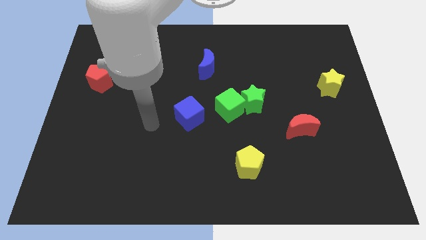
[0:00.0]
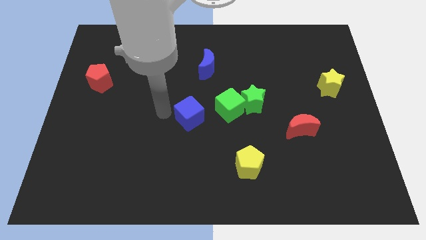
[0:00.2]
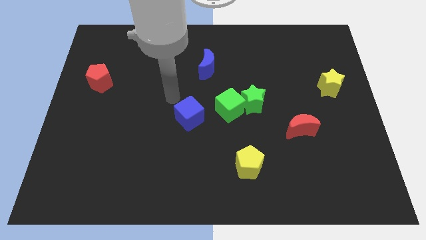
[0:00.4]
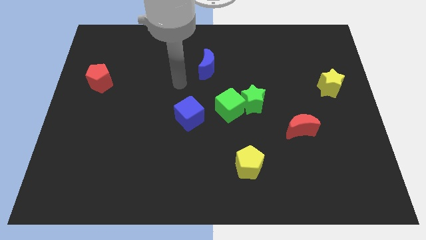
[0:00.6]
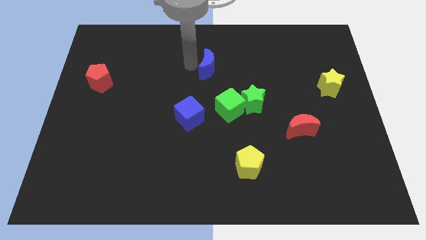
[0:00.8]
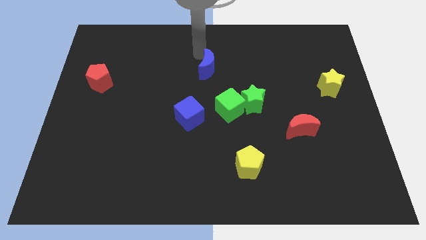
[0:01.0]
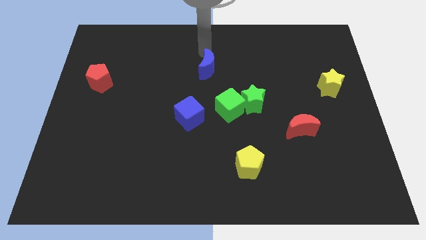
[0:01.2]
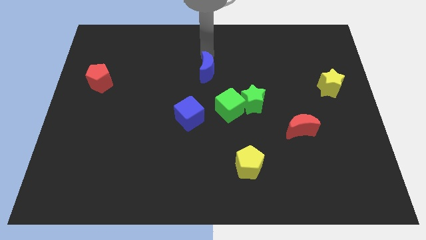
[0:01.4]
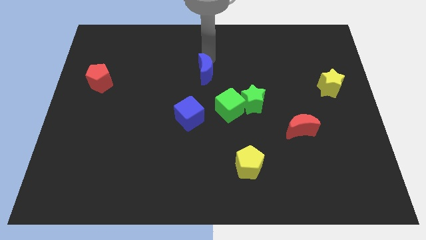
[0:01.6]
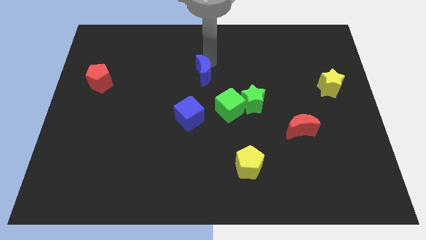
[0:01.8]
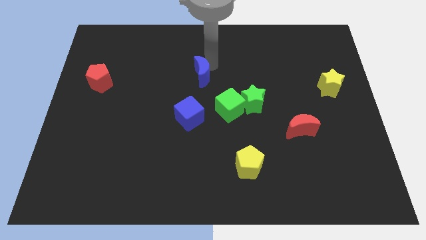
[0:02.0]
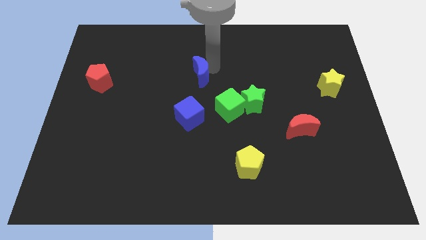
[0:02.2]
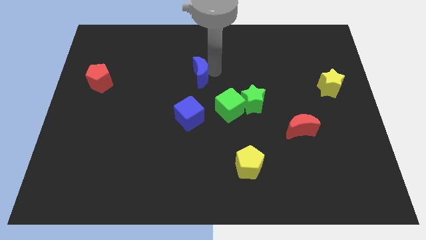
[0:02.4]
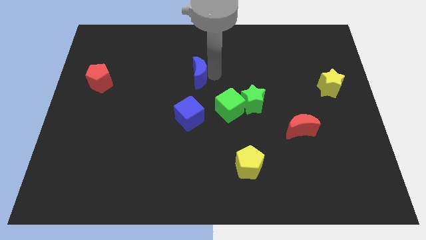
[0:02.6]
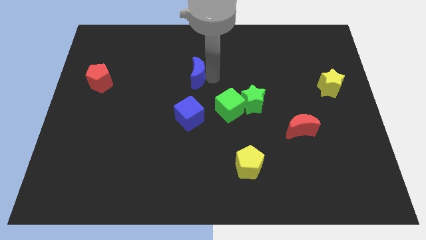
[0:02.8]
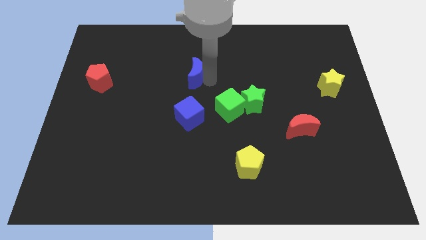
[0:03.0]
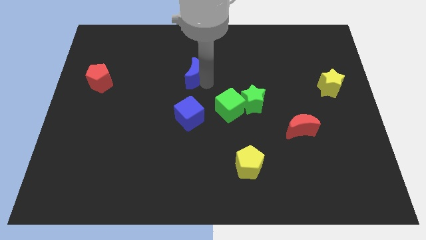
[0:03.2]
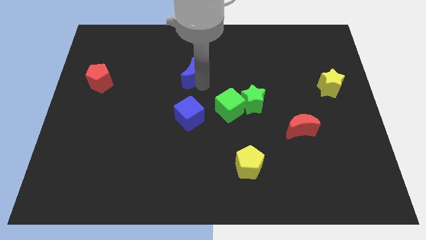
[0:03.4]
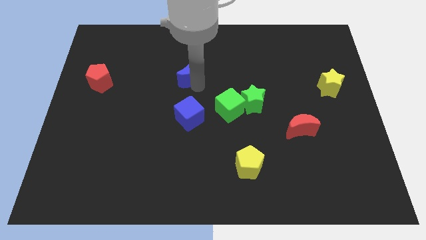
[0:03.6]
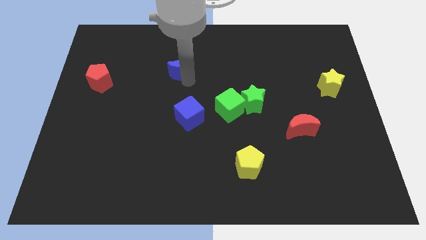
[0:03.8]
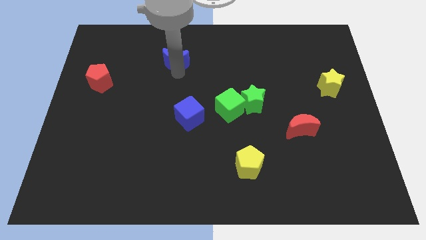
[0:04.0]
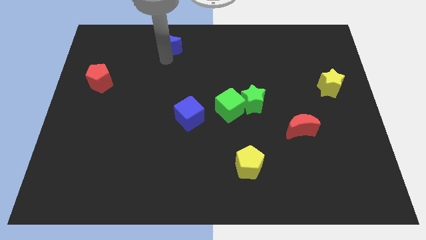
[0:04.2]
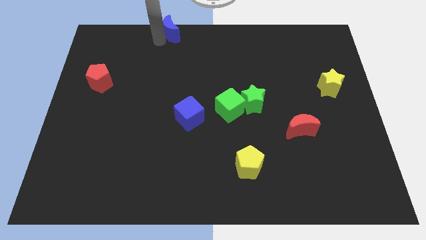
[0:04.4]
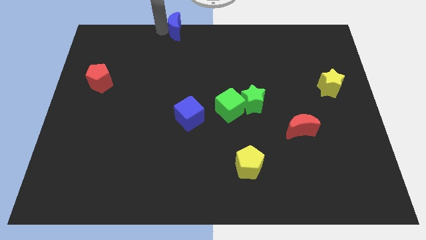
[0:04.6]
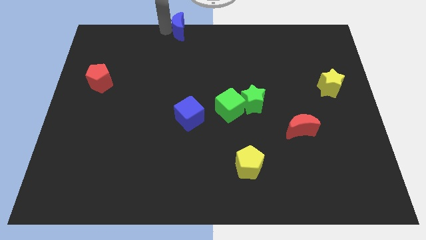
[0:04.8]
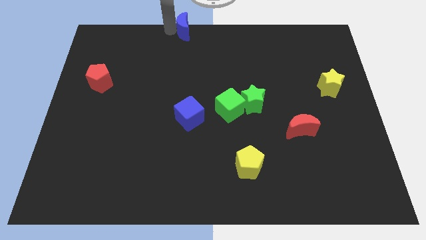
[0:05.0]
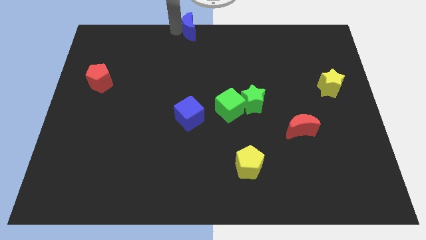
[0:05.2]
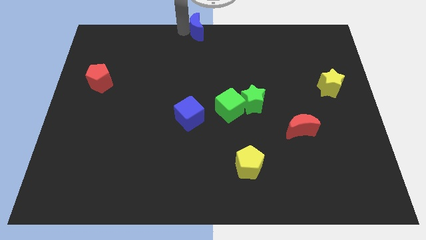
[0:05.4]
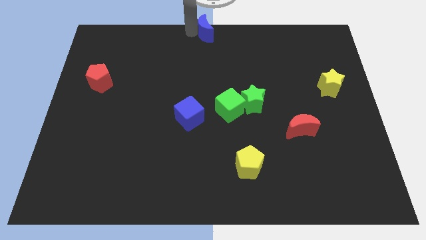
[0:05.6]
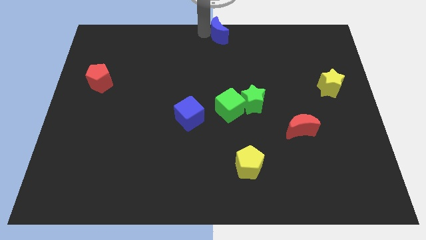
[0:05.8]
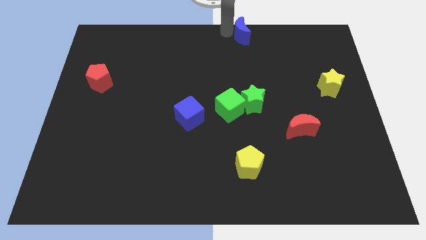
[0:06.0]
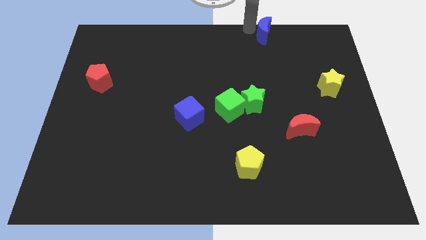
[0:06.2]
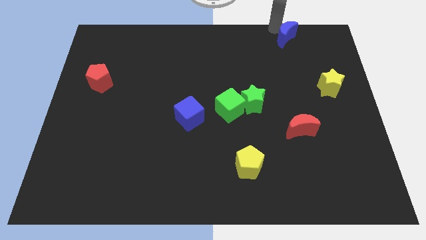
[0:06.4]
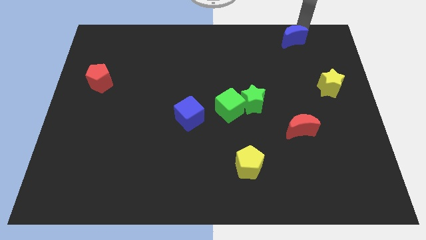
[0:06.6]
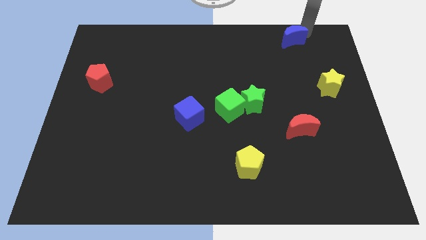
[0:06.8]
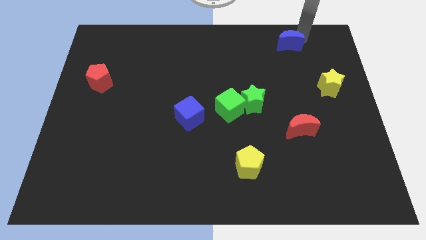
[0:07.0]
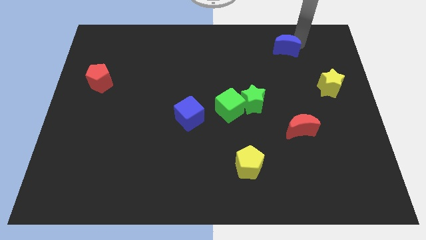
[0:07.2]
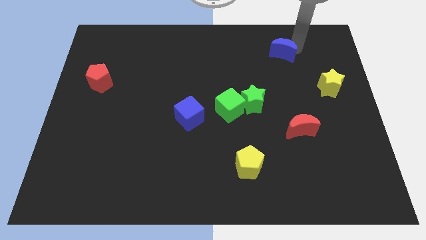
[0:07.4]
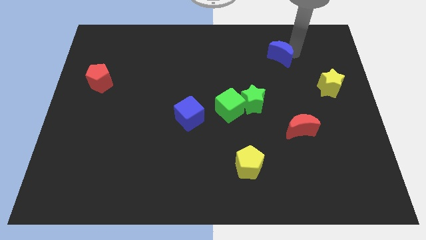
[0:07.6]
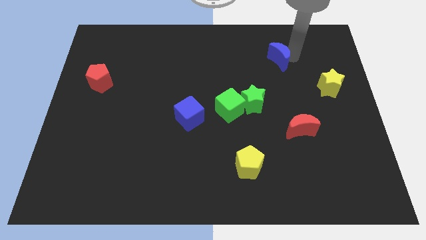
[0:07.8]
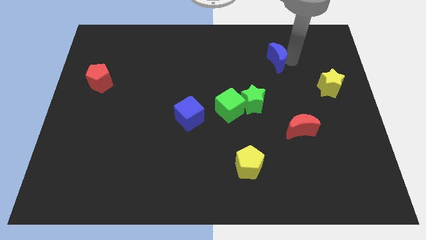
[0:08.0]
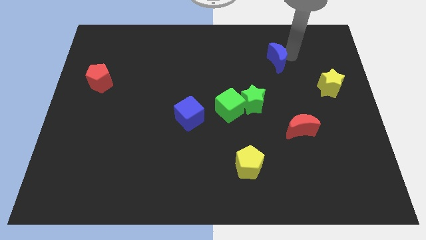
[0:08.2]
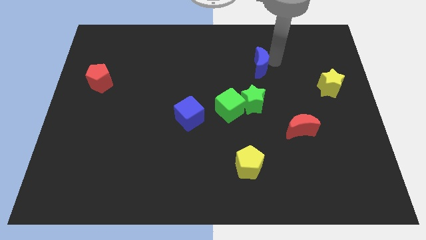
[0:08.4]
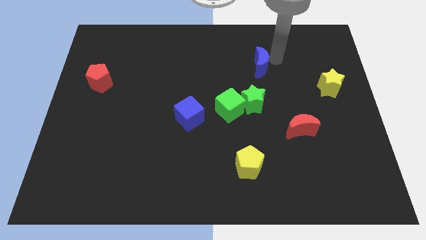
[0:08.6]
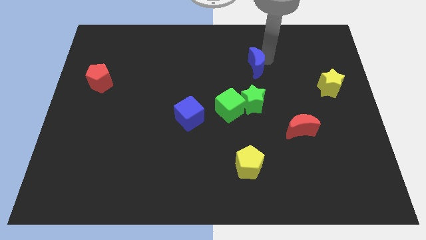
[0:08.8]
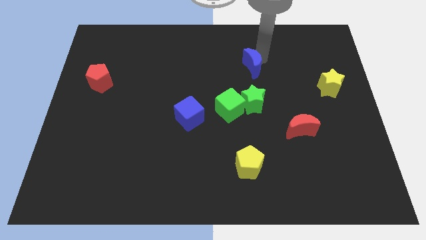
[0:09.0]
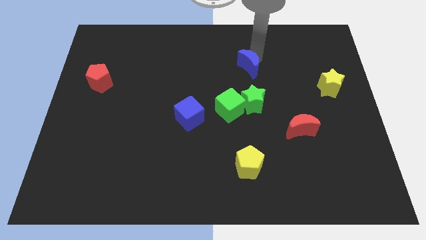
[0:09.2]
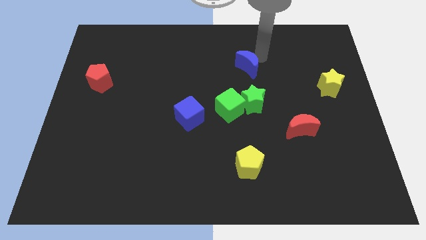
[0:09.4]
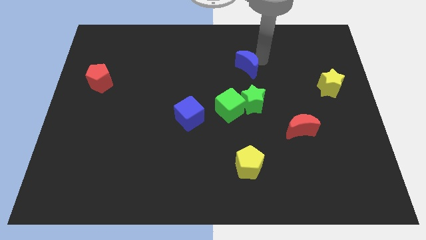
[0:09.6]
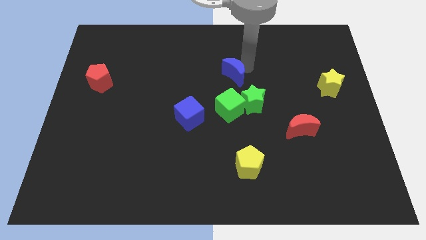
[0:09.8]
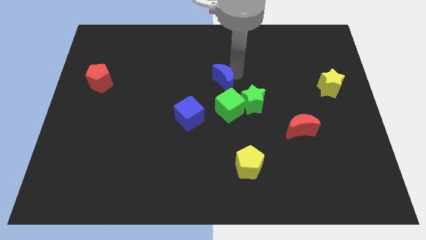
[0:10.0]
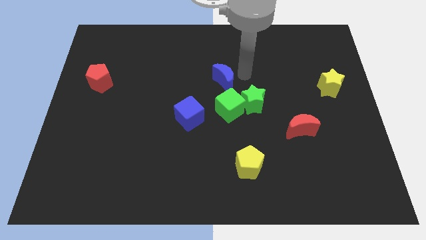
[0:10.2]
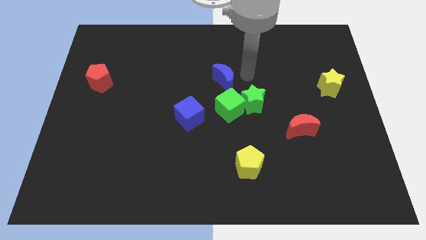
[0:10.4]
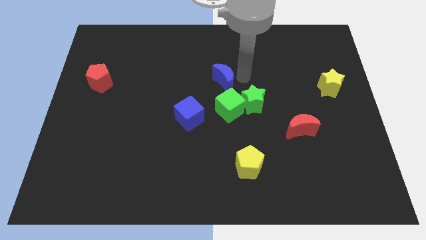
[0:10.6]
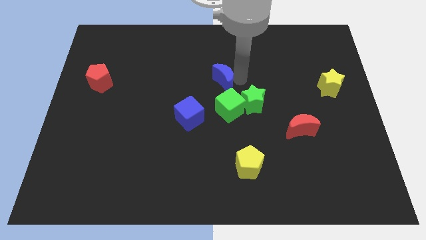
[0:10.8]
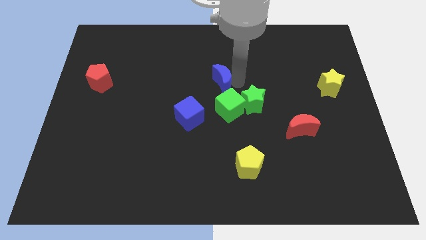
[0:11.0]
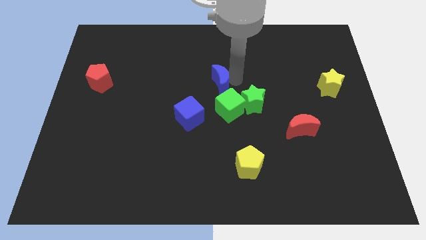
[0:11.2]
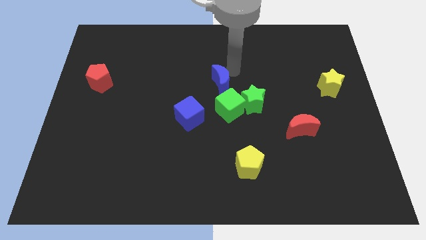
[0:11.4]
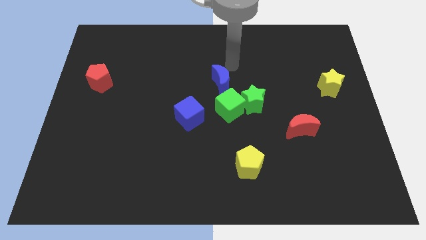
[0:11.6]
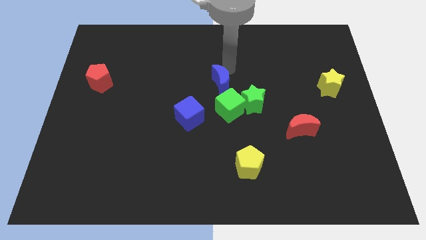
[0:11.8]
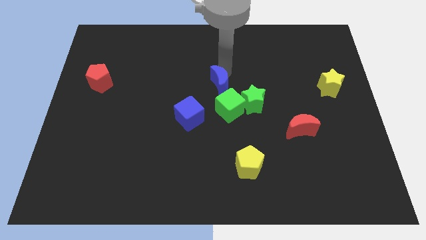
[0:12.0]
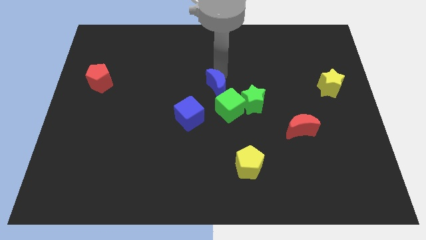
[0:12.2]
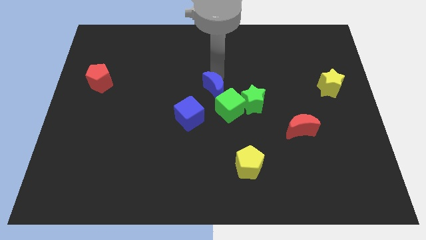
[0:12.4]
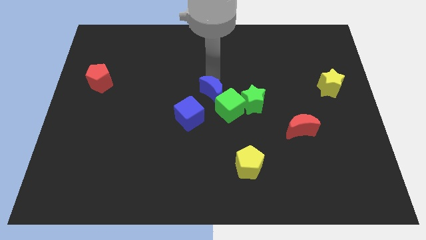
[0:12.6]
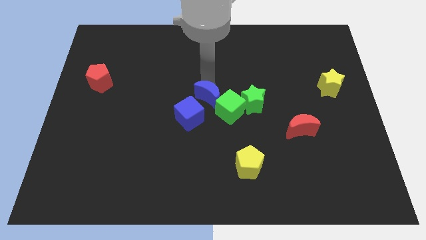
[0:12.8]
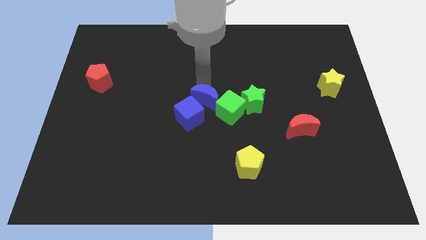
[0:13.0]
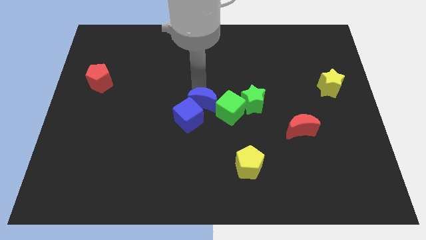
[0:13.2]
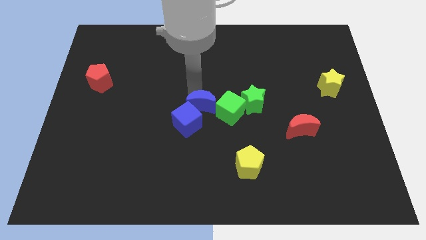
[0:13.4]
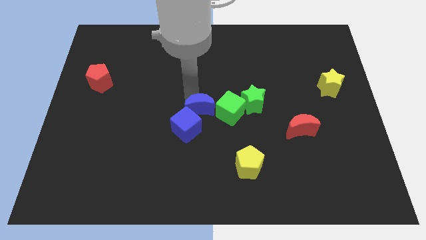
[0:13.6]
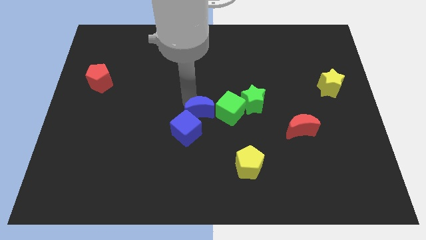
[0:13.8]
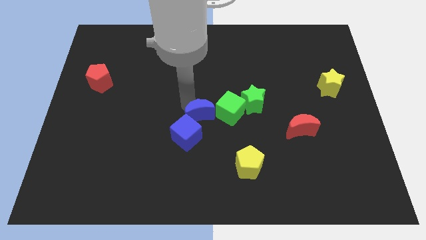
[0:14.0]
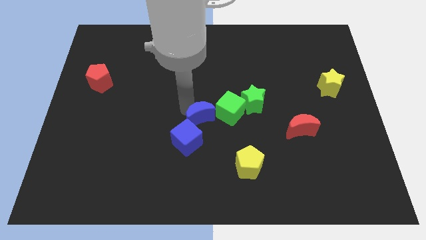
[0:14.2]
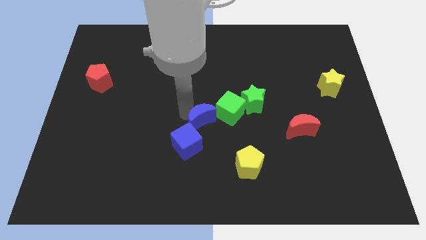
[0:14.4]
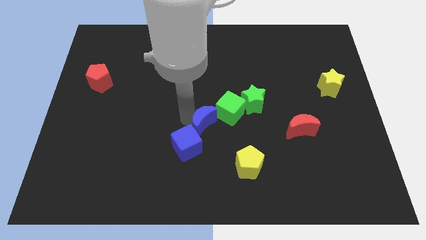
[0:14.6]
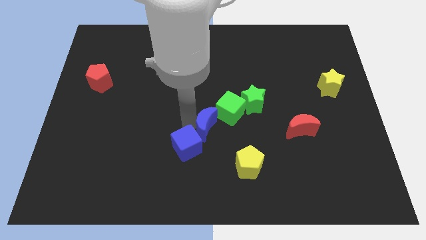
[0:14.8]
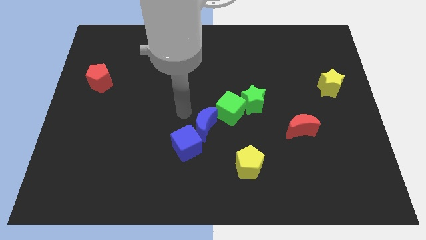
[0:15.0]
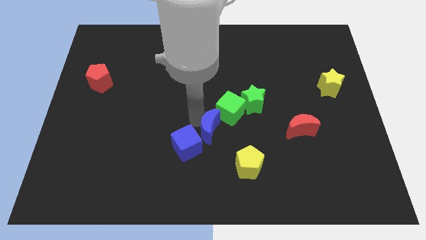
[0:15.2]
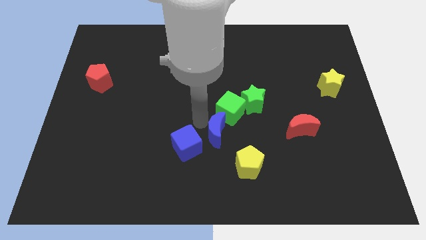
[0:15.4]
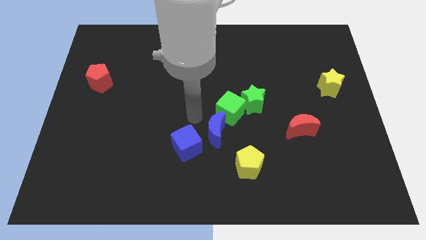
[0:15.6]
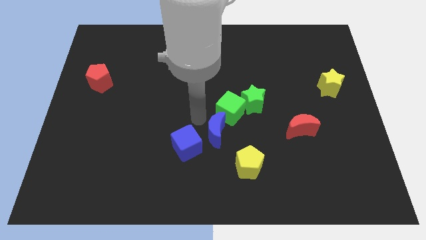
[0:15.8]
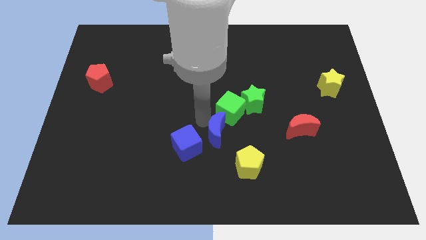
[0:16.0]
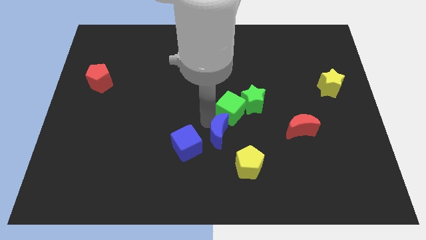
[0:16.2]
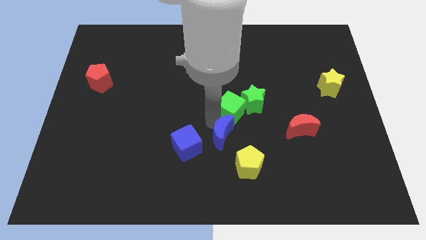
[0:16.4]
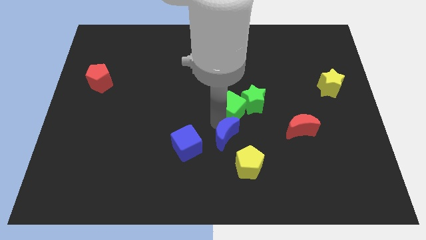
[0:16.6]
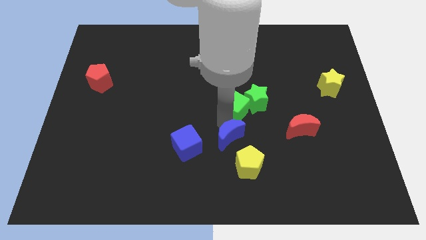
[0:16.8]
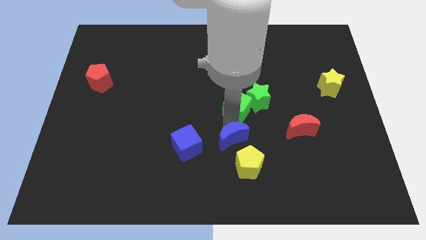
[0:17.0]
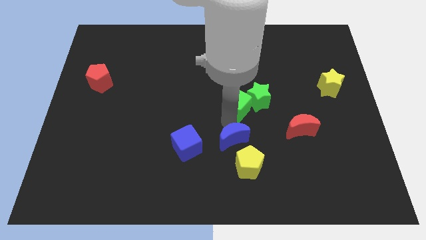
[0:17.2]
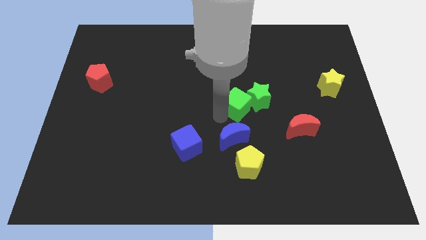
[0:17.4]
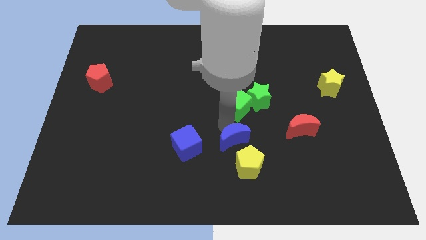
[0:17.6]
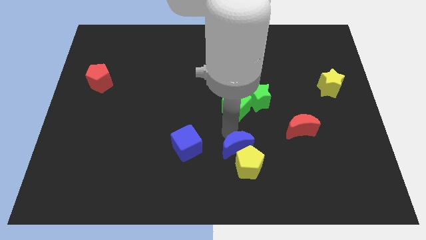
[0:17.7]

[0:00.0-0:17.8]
slide the blue moon close to the yellow pentagon
